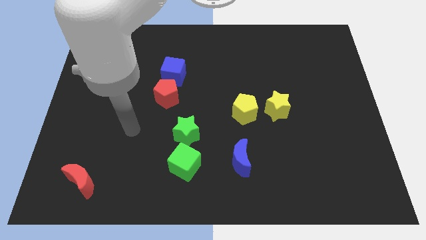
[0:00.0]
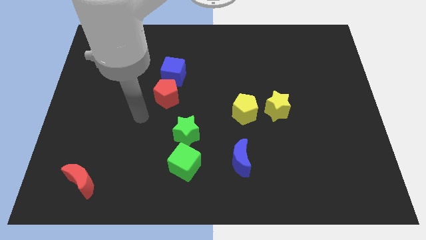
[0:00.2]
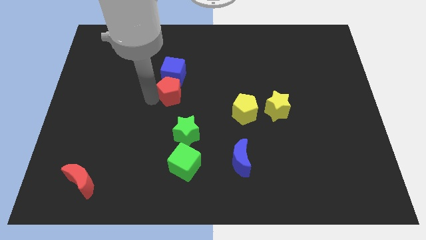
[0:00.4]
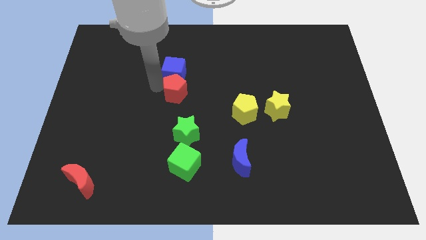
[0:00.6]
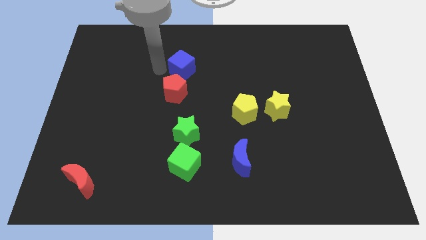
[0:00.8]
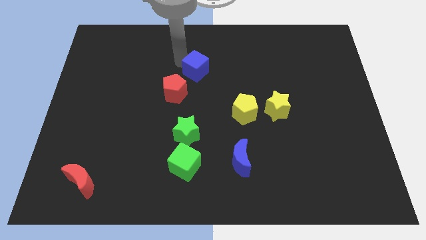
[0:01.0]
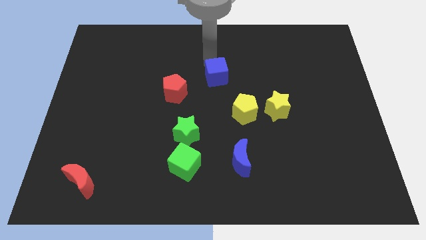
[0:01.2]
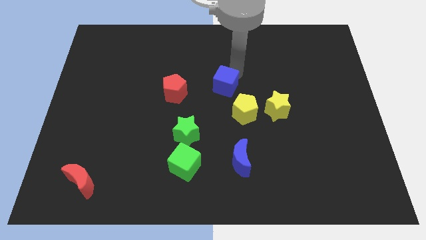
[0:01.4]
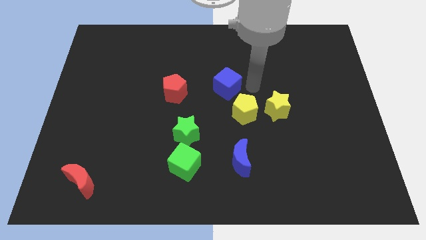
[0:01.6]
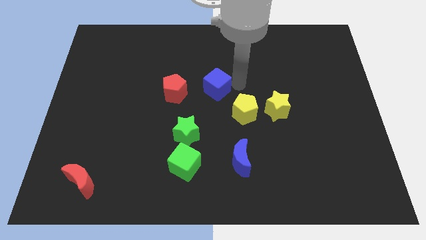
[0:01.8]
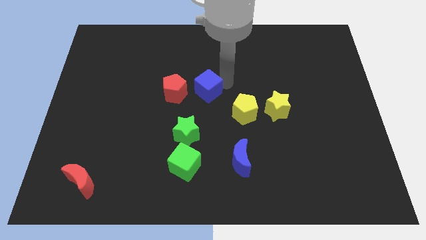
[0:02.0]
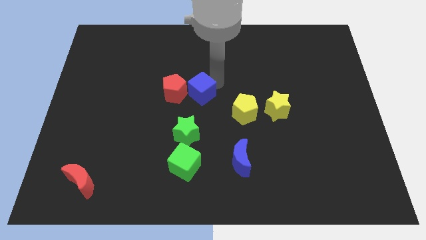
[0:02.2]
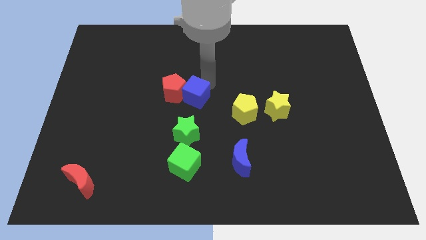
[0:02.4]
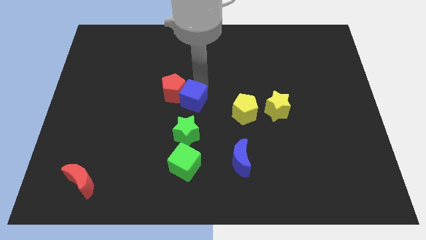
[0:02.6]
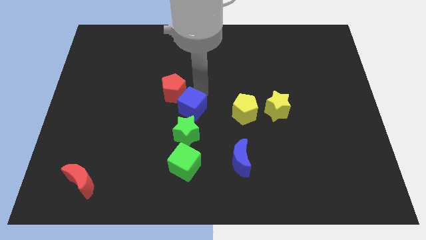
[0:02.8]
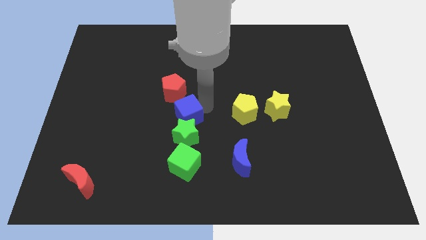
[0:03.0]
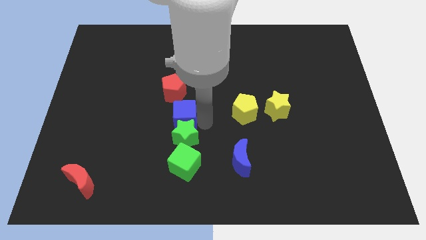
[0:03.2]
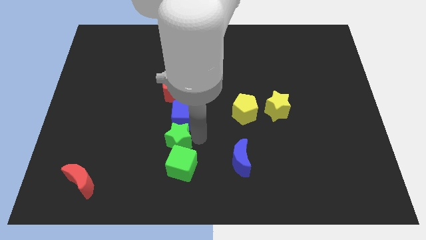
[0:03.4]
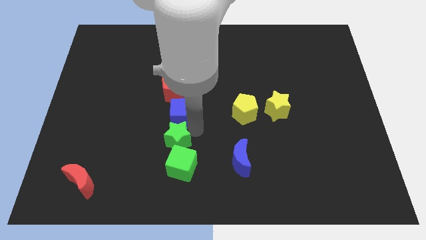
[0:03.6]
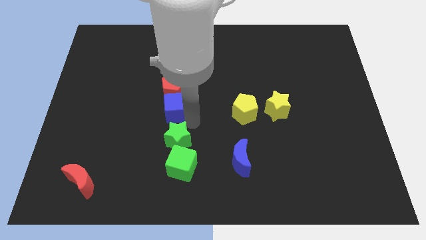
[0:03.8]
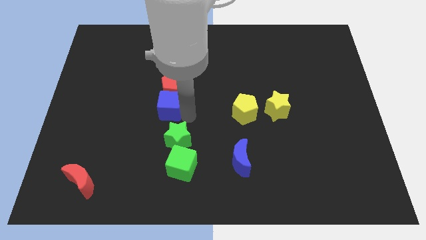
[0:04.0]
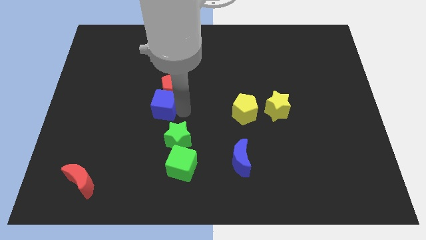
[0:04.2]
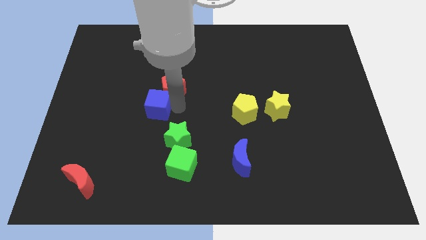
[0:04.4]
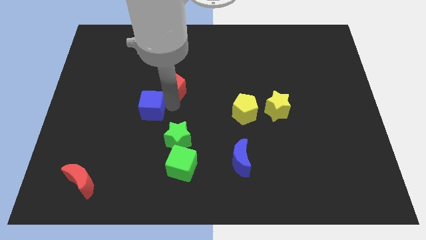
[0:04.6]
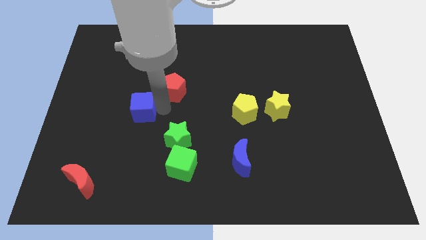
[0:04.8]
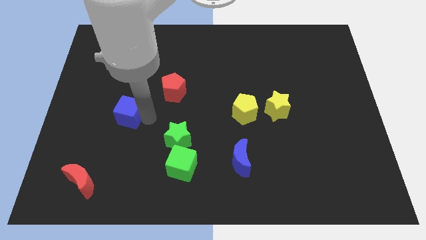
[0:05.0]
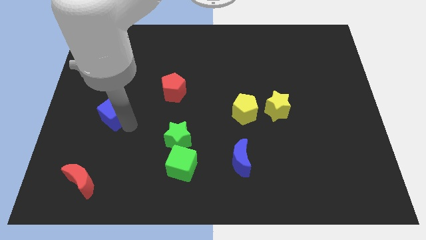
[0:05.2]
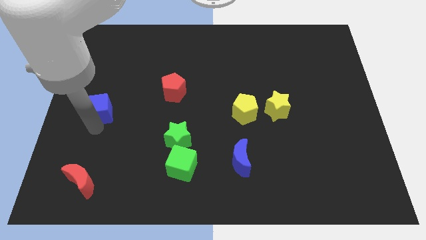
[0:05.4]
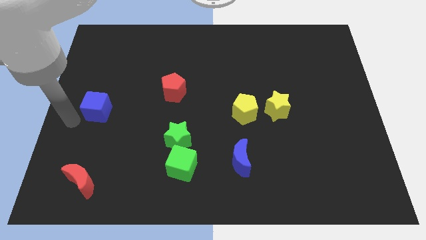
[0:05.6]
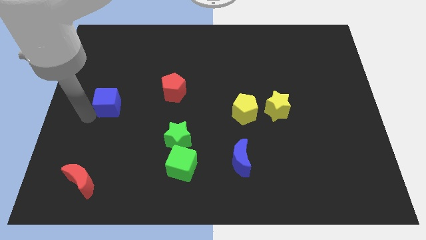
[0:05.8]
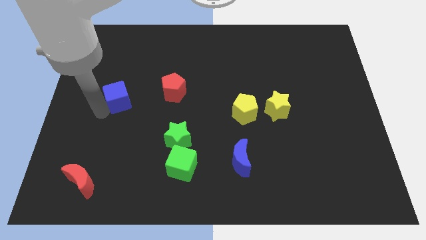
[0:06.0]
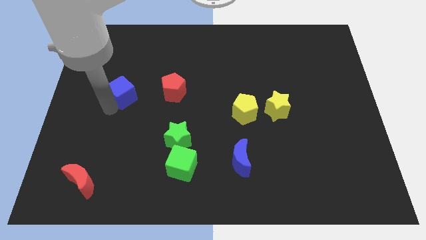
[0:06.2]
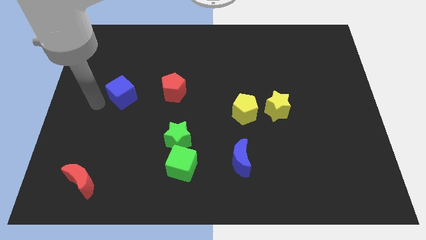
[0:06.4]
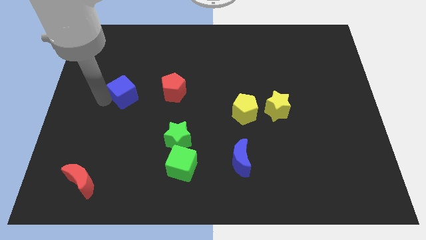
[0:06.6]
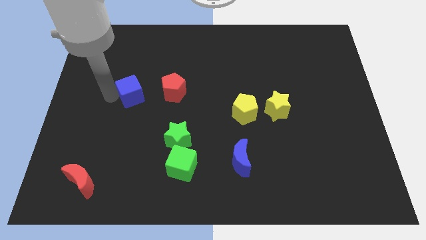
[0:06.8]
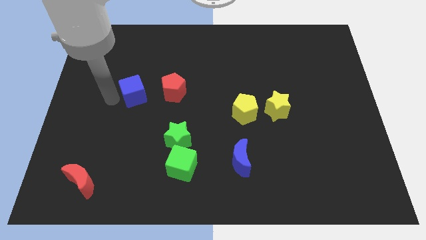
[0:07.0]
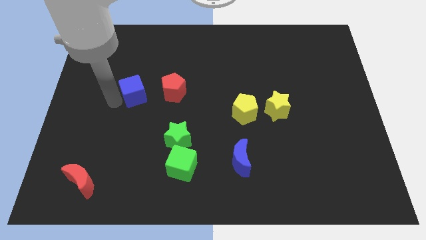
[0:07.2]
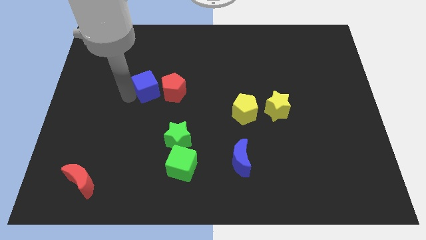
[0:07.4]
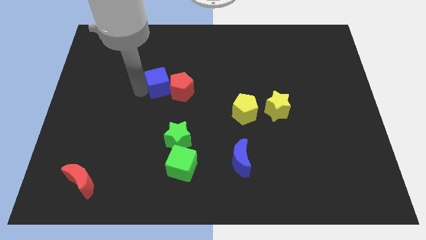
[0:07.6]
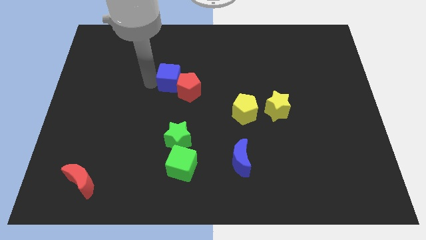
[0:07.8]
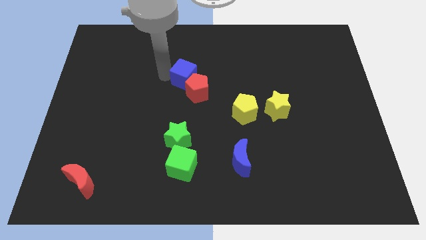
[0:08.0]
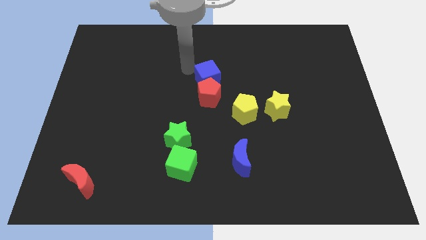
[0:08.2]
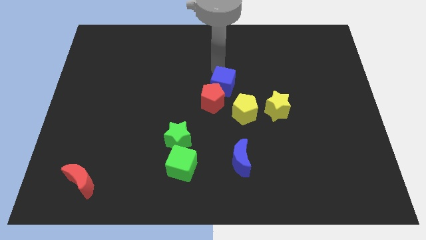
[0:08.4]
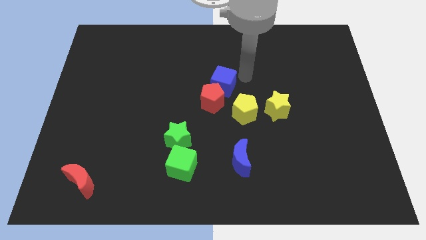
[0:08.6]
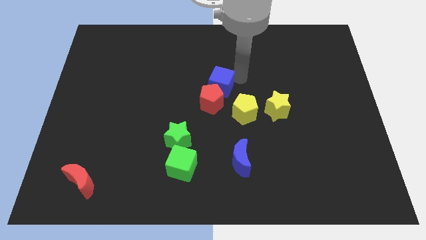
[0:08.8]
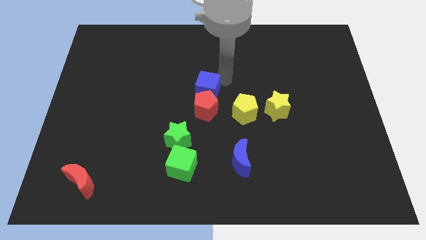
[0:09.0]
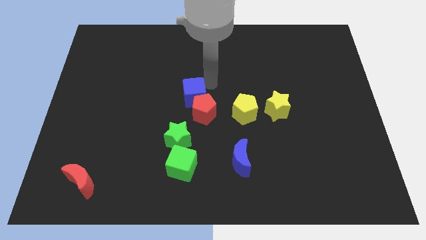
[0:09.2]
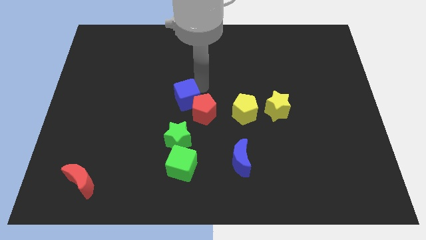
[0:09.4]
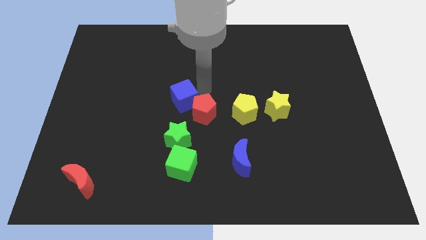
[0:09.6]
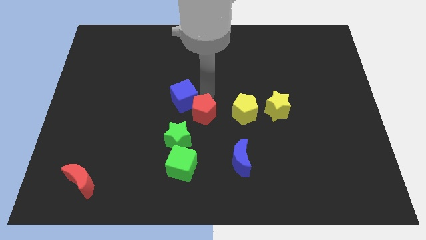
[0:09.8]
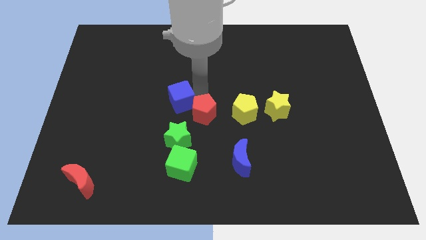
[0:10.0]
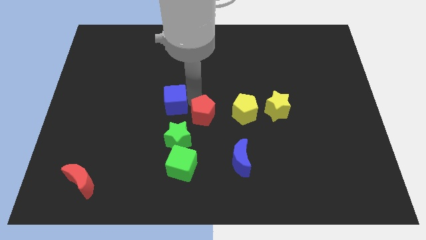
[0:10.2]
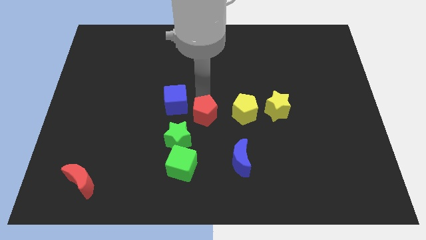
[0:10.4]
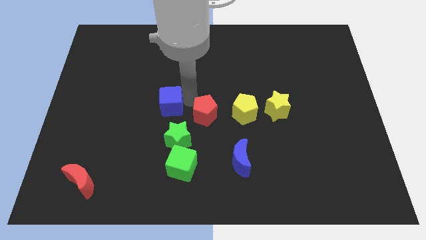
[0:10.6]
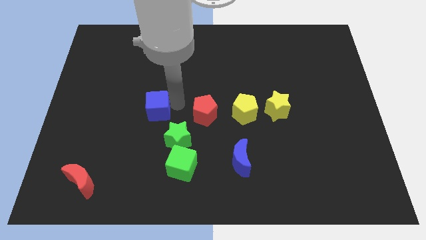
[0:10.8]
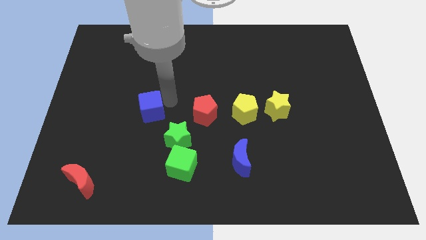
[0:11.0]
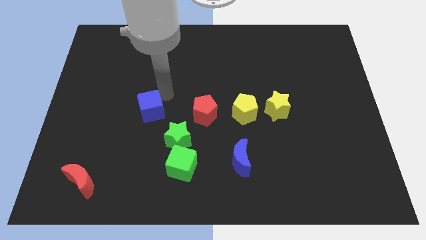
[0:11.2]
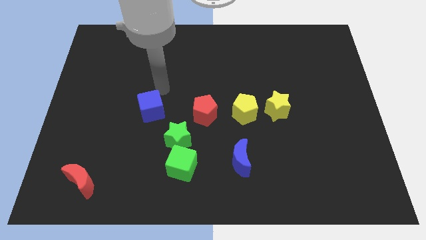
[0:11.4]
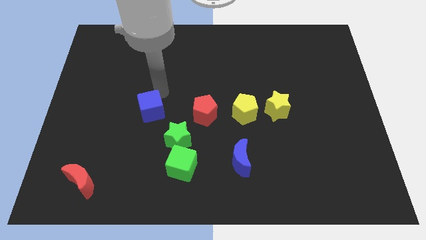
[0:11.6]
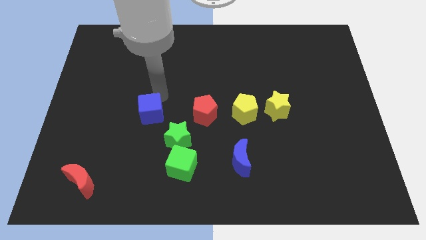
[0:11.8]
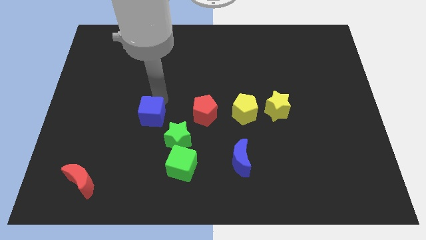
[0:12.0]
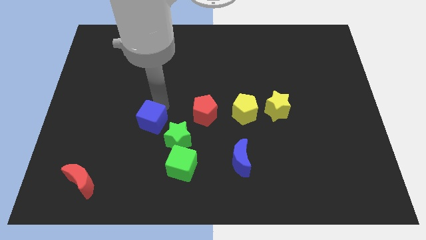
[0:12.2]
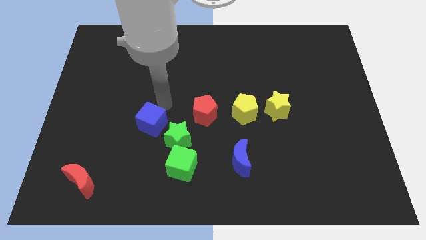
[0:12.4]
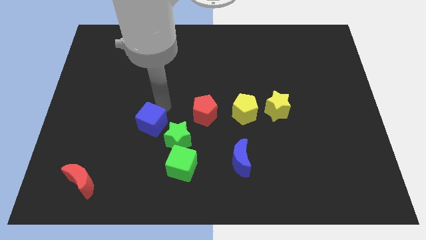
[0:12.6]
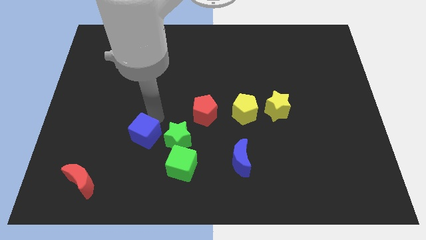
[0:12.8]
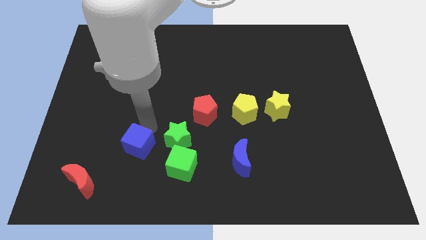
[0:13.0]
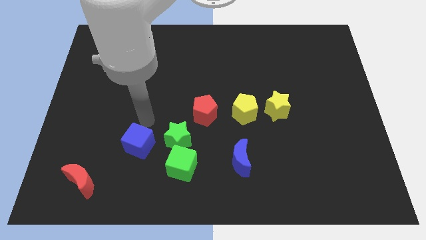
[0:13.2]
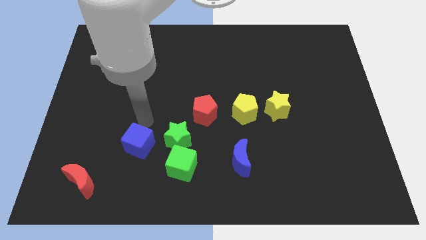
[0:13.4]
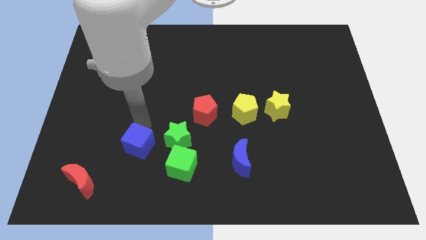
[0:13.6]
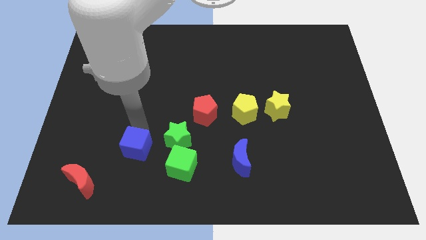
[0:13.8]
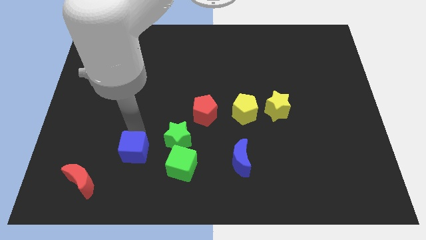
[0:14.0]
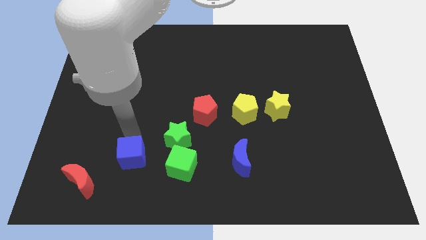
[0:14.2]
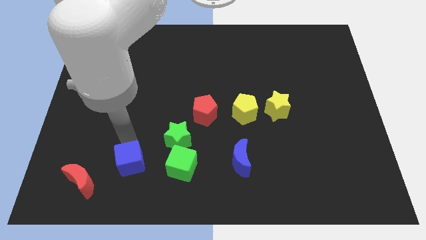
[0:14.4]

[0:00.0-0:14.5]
move the blue cube to the right side of the red moon
